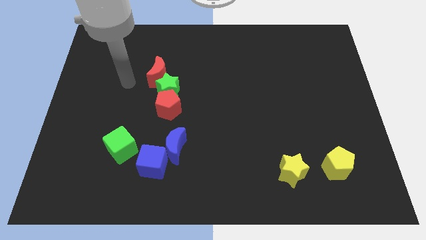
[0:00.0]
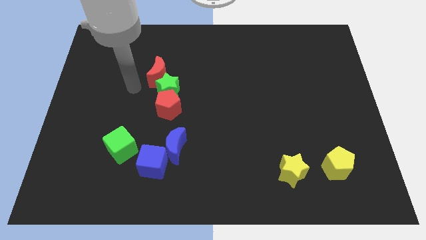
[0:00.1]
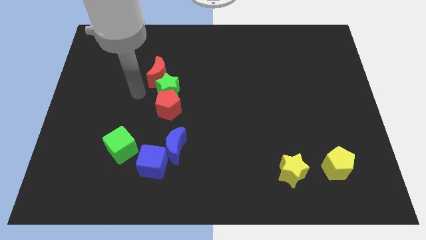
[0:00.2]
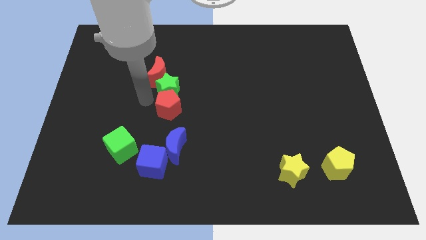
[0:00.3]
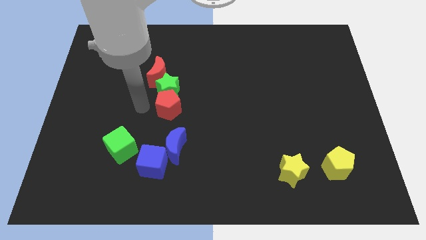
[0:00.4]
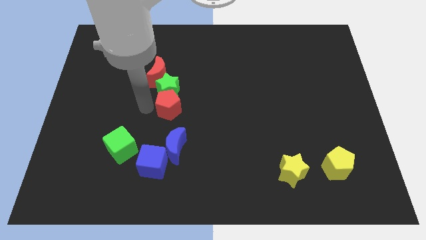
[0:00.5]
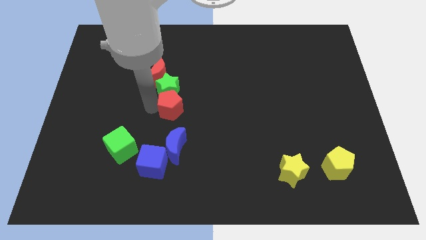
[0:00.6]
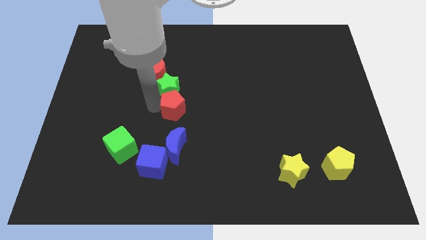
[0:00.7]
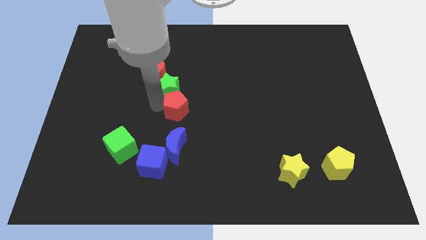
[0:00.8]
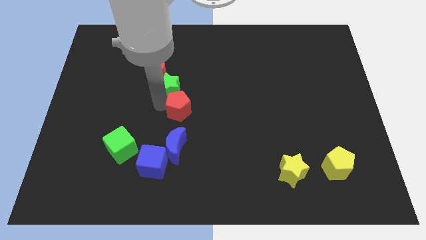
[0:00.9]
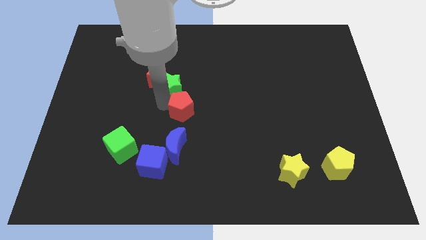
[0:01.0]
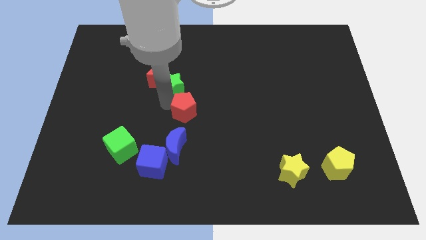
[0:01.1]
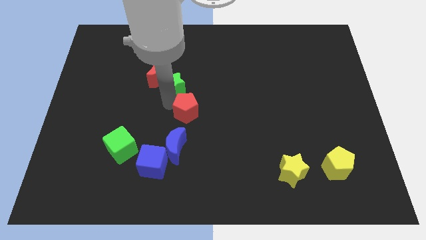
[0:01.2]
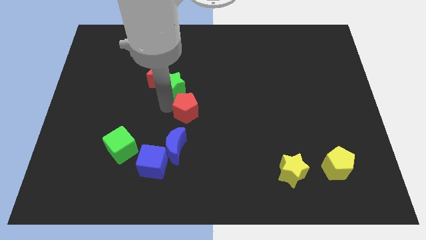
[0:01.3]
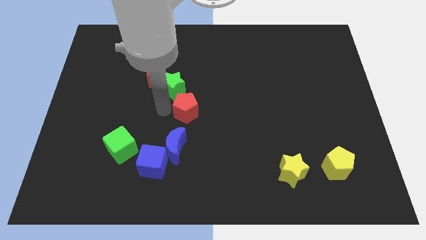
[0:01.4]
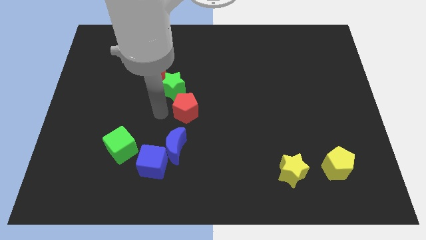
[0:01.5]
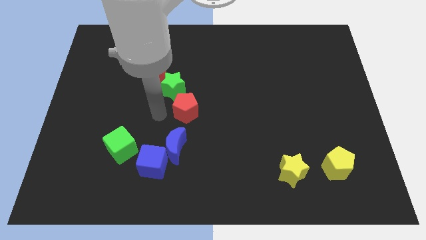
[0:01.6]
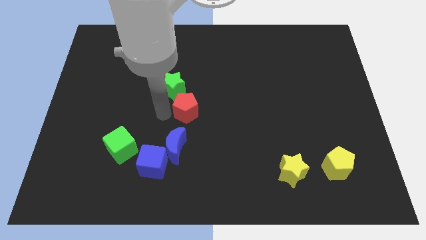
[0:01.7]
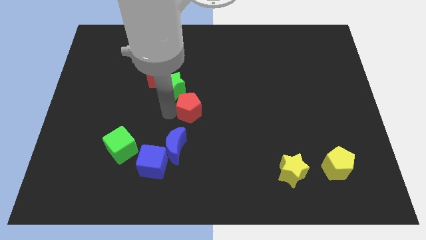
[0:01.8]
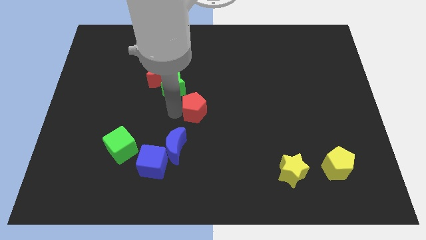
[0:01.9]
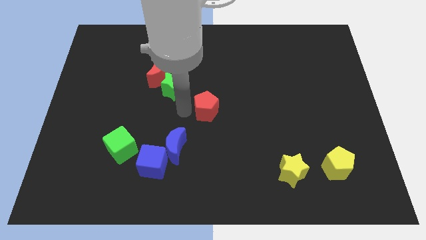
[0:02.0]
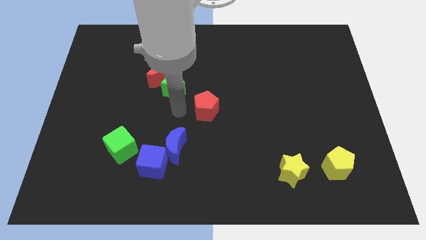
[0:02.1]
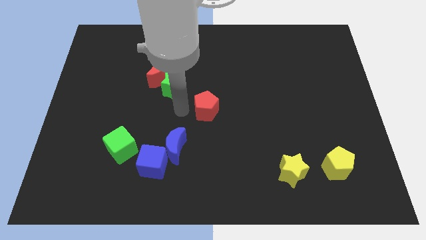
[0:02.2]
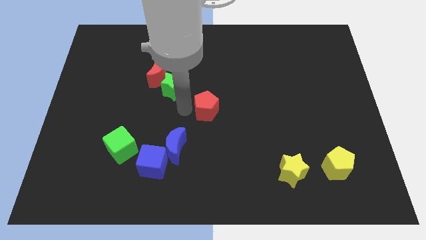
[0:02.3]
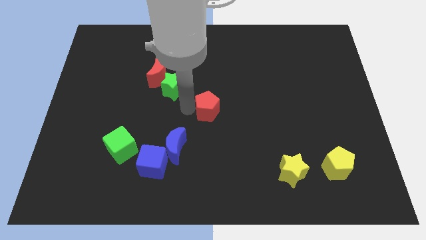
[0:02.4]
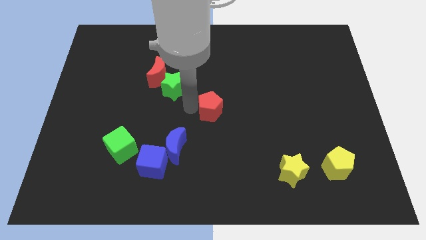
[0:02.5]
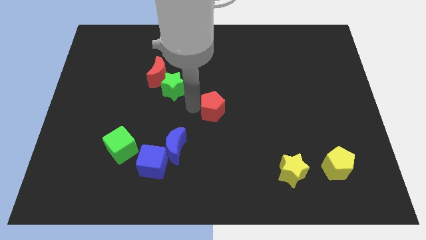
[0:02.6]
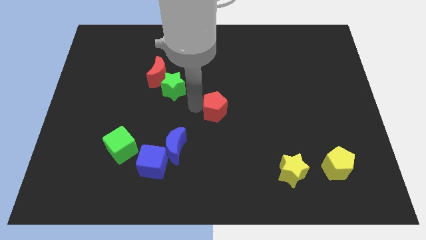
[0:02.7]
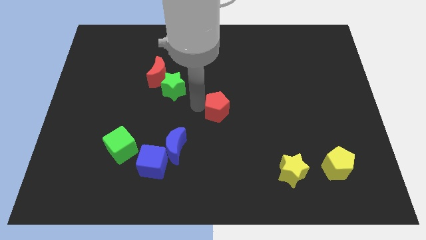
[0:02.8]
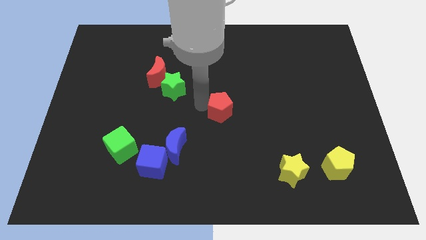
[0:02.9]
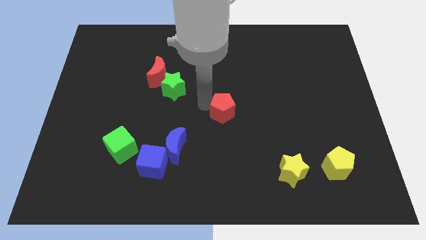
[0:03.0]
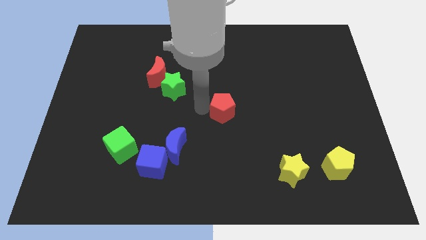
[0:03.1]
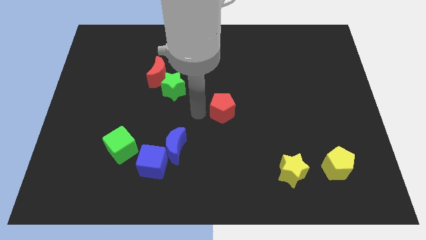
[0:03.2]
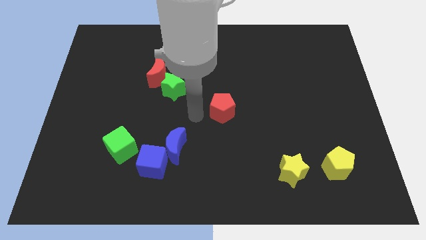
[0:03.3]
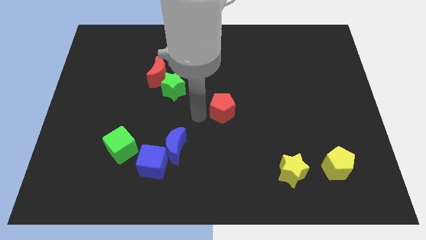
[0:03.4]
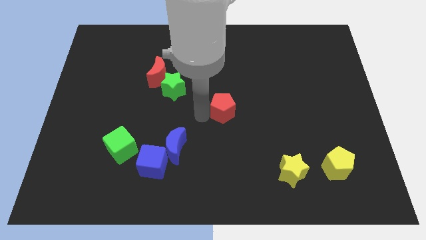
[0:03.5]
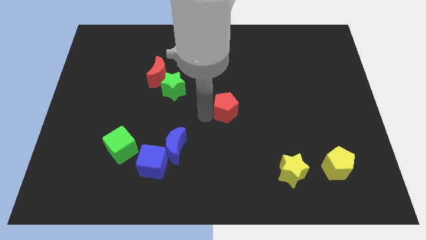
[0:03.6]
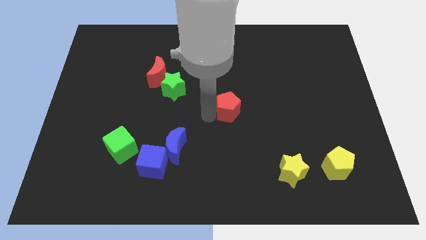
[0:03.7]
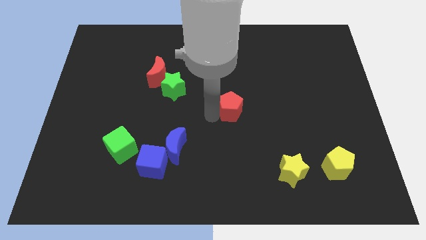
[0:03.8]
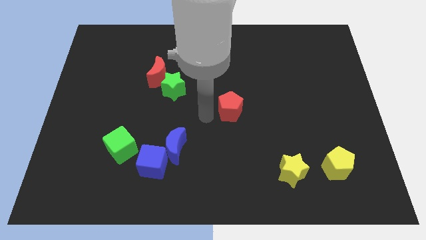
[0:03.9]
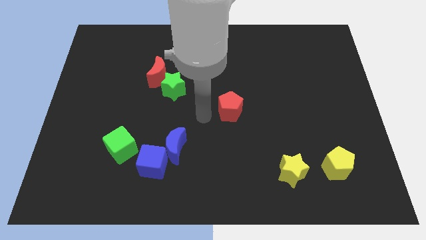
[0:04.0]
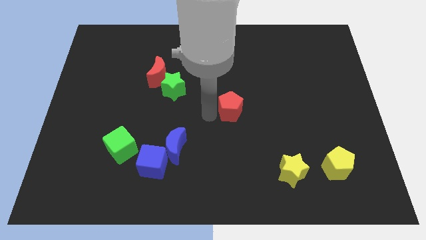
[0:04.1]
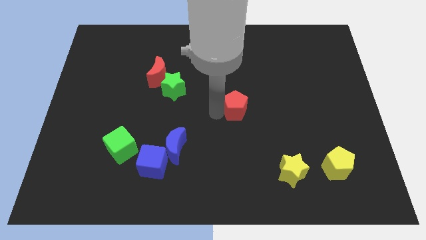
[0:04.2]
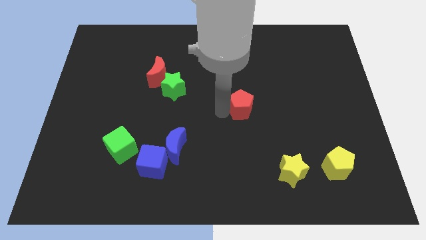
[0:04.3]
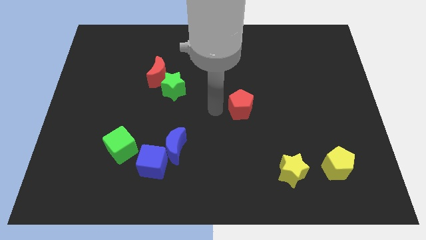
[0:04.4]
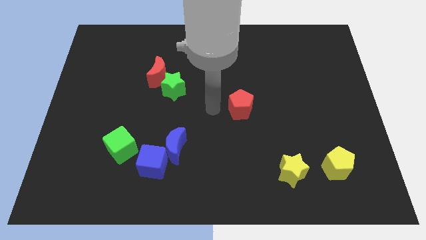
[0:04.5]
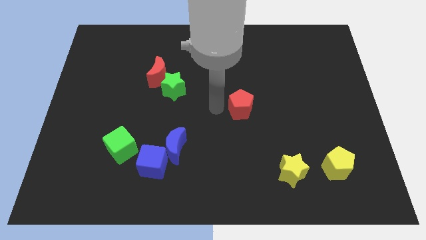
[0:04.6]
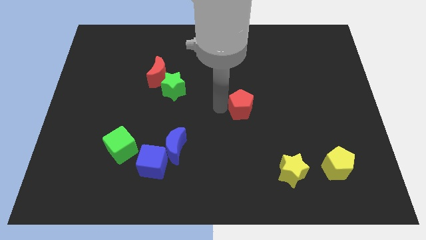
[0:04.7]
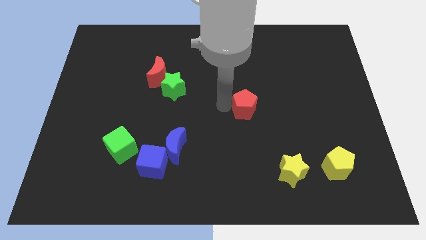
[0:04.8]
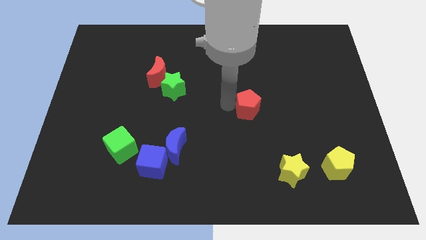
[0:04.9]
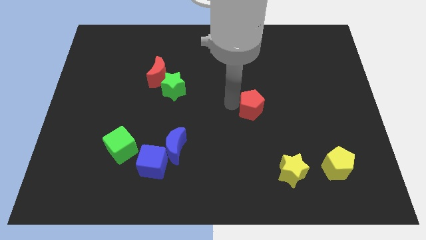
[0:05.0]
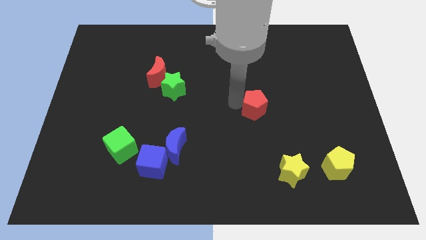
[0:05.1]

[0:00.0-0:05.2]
move the red pentagon to the right

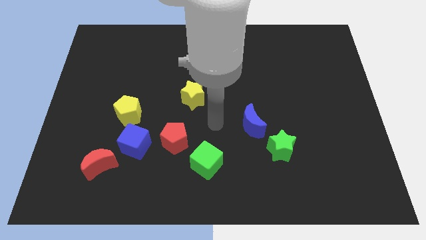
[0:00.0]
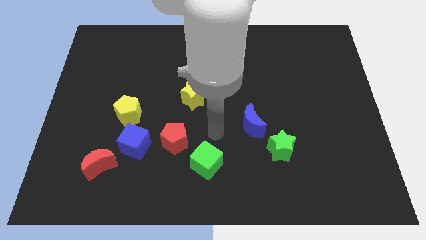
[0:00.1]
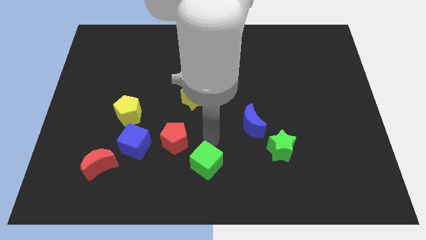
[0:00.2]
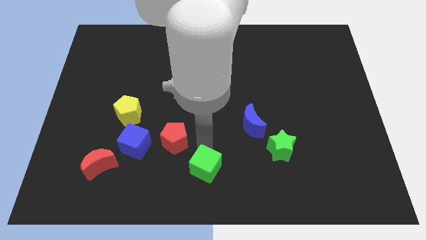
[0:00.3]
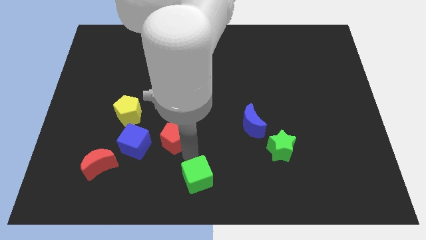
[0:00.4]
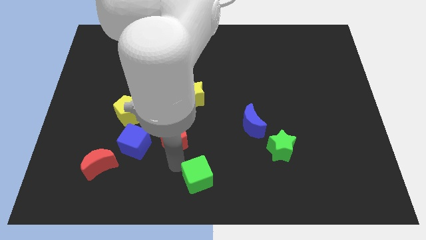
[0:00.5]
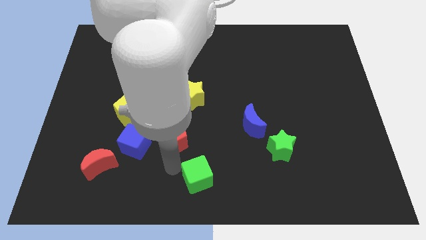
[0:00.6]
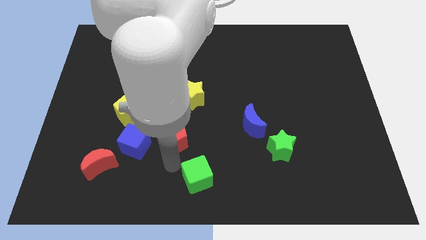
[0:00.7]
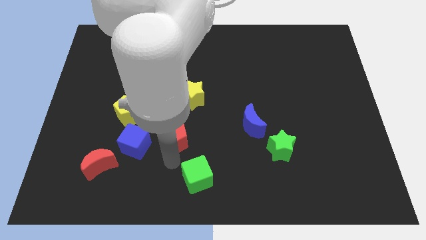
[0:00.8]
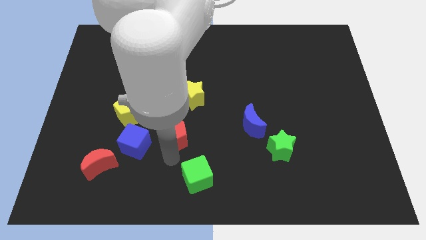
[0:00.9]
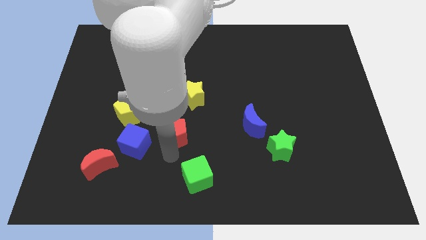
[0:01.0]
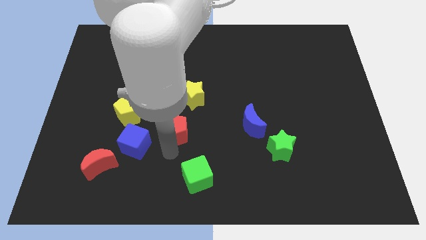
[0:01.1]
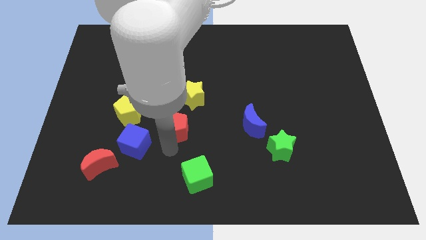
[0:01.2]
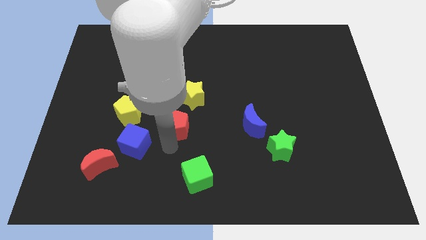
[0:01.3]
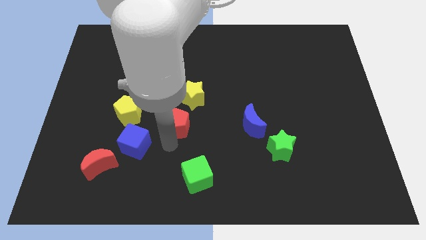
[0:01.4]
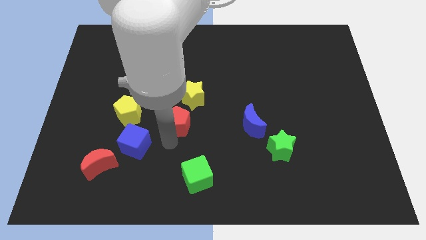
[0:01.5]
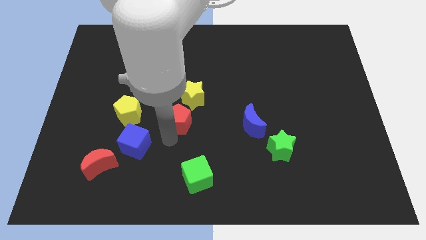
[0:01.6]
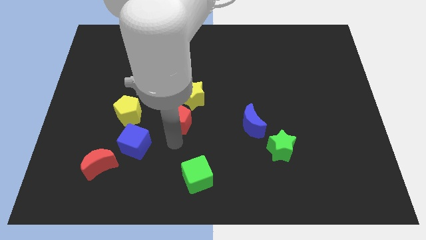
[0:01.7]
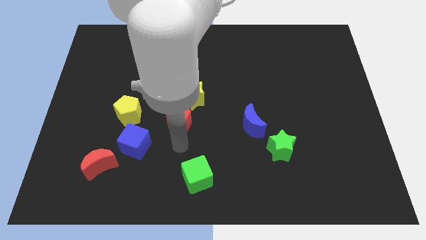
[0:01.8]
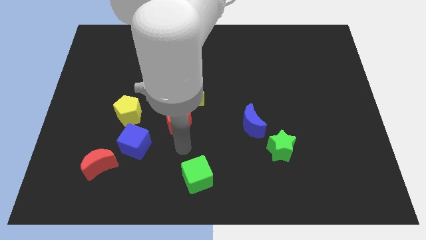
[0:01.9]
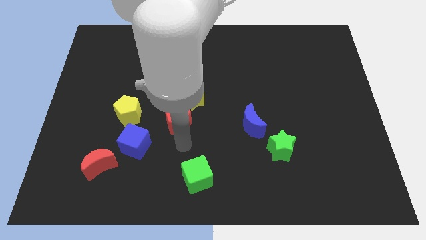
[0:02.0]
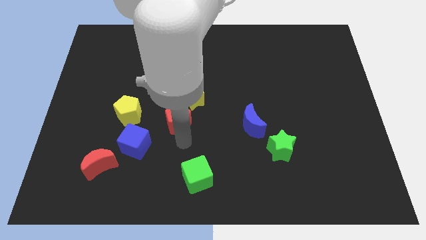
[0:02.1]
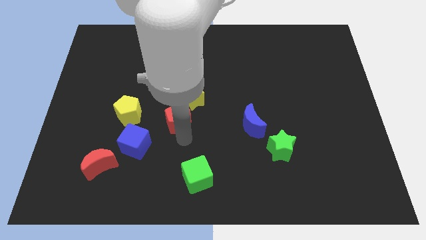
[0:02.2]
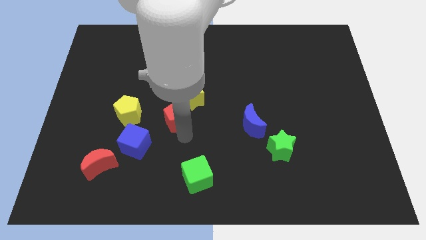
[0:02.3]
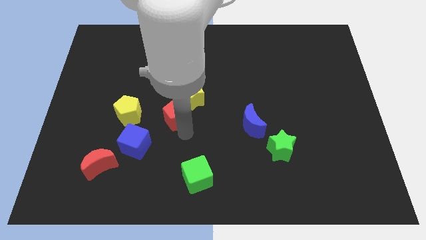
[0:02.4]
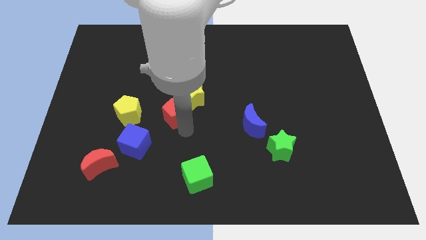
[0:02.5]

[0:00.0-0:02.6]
slightly push the red pentagon up

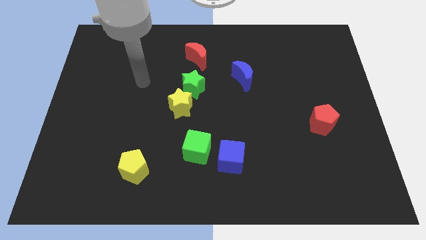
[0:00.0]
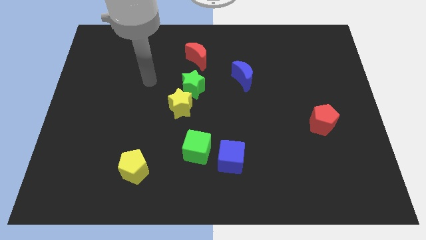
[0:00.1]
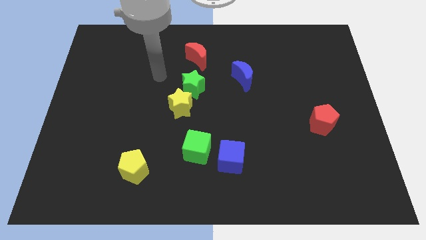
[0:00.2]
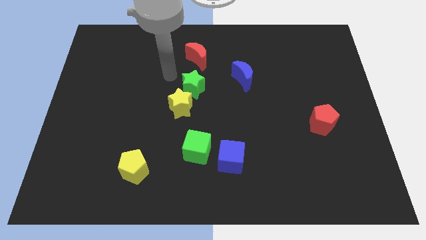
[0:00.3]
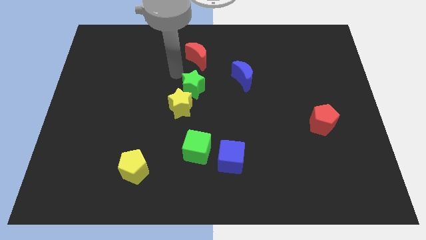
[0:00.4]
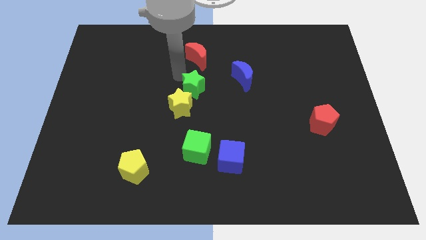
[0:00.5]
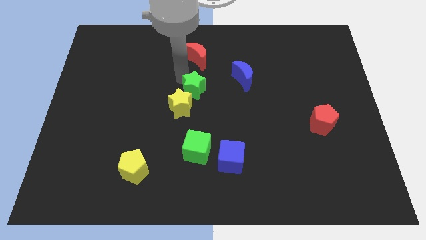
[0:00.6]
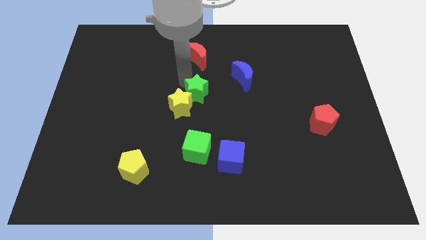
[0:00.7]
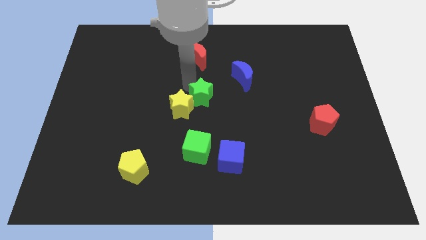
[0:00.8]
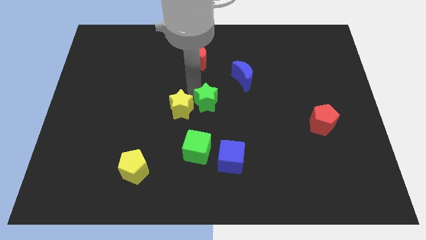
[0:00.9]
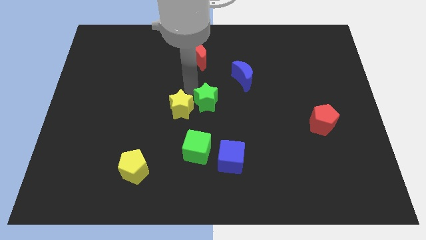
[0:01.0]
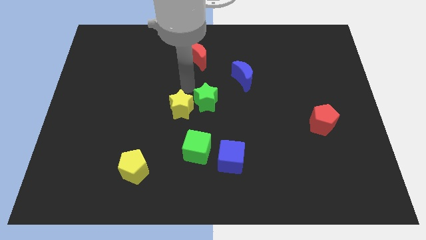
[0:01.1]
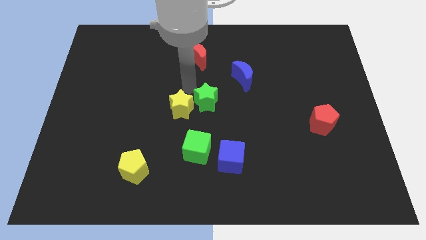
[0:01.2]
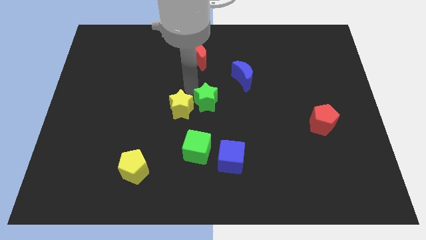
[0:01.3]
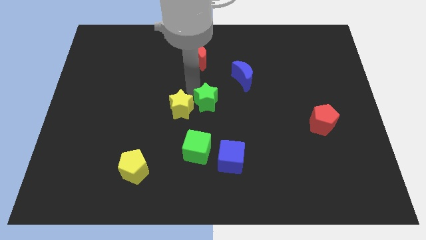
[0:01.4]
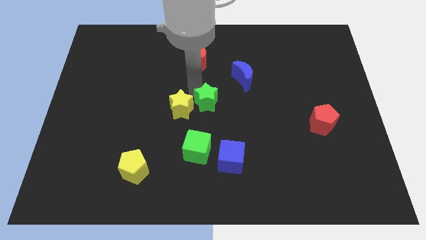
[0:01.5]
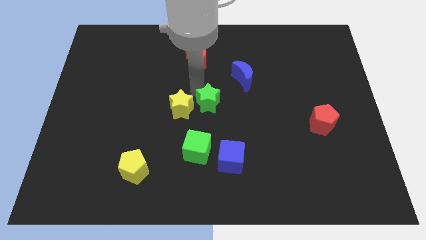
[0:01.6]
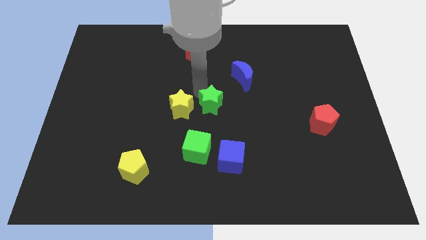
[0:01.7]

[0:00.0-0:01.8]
push the green star a bit diagonally downwards and to the right
